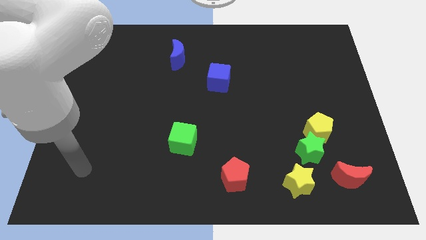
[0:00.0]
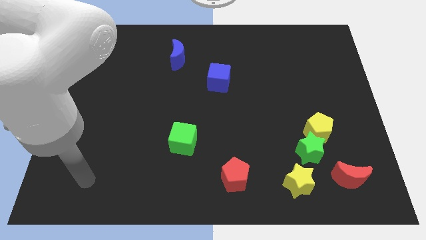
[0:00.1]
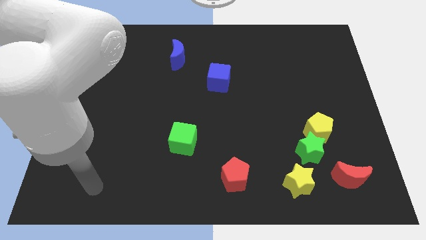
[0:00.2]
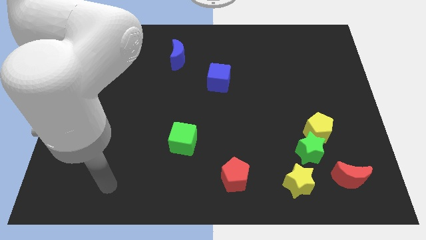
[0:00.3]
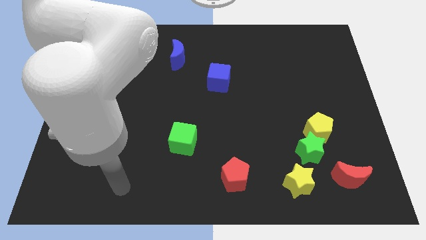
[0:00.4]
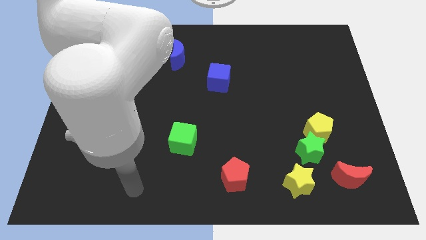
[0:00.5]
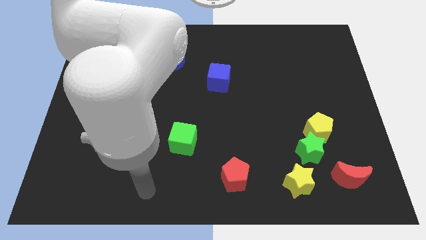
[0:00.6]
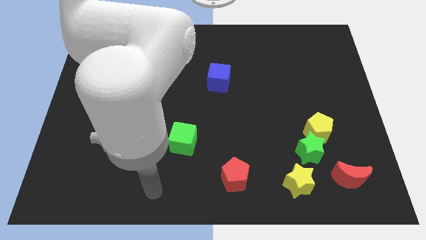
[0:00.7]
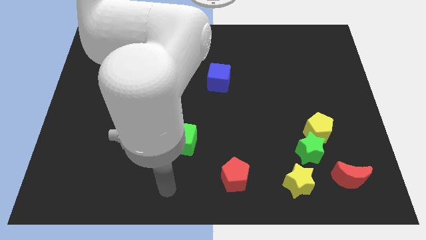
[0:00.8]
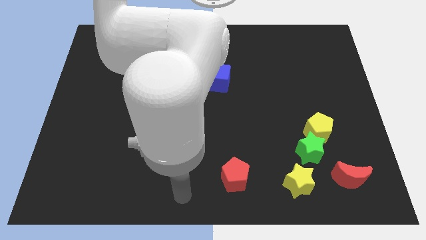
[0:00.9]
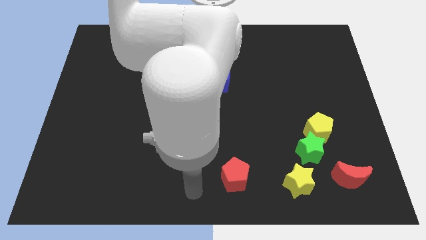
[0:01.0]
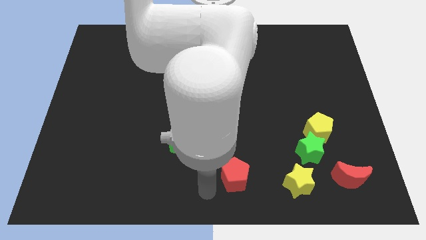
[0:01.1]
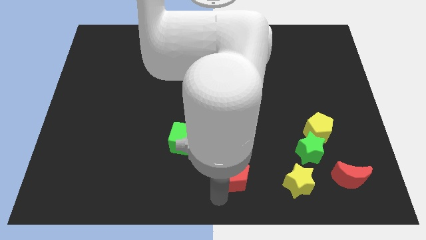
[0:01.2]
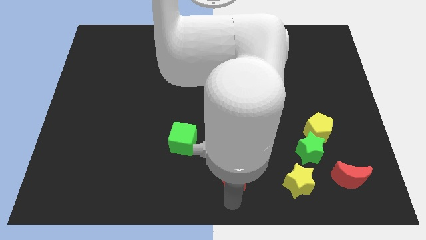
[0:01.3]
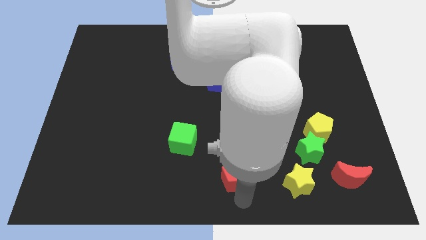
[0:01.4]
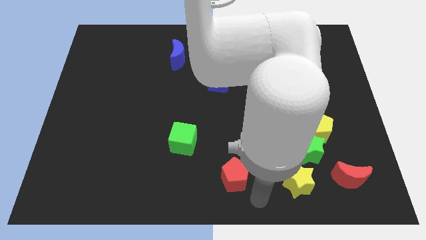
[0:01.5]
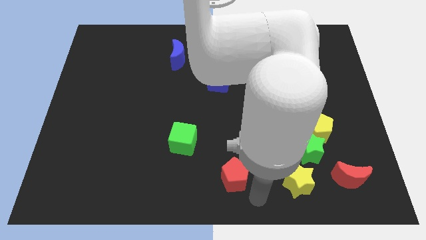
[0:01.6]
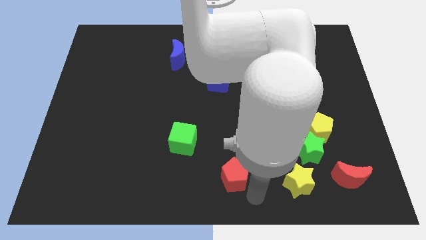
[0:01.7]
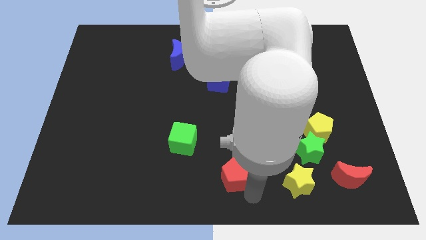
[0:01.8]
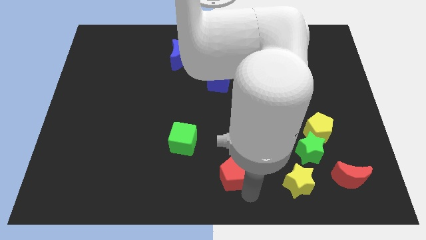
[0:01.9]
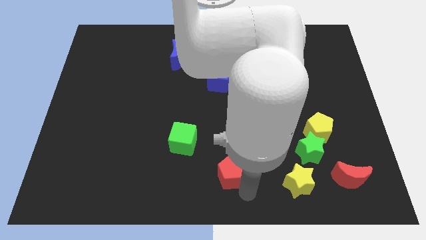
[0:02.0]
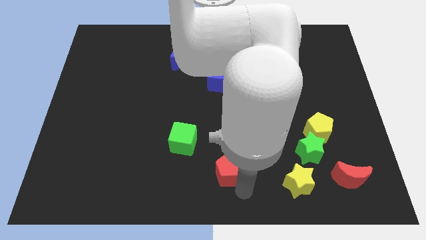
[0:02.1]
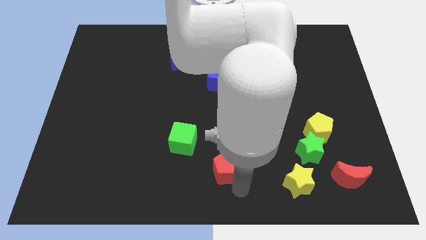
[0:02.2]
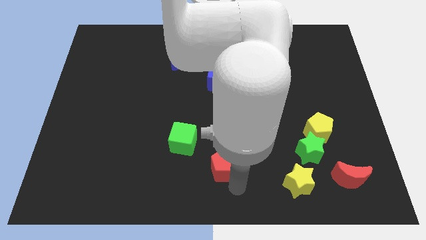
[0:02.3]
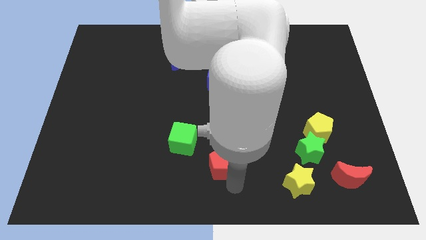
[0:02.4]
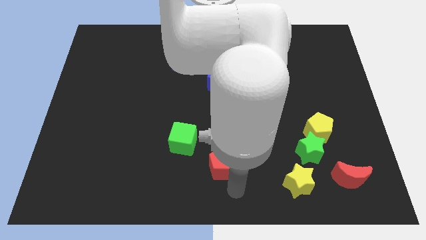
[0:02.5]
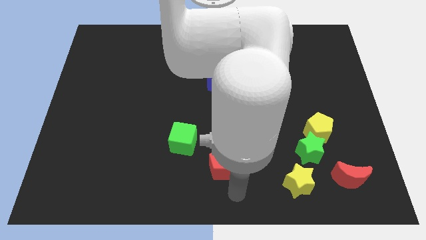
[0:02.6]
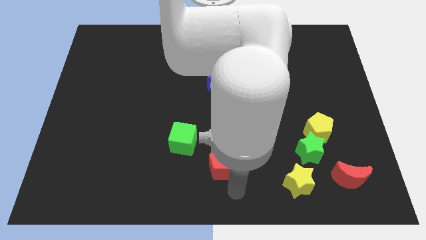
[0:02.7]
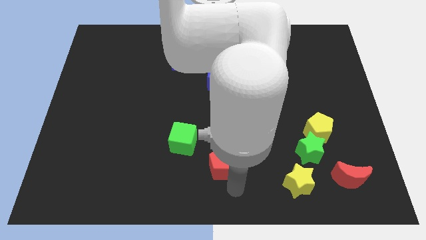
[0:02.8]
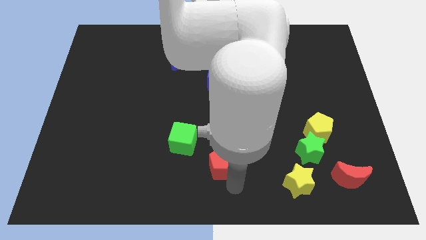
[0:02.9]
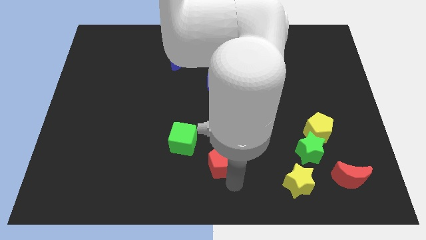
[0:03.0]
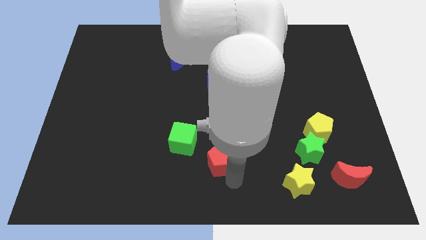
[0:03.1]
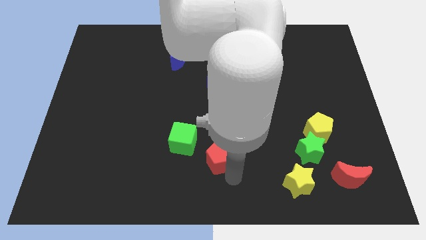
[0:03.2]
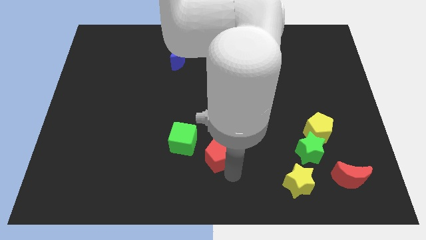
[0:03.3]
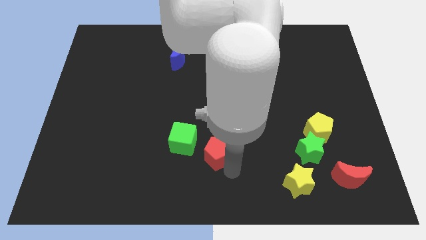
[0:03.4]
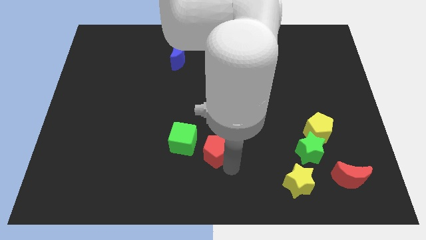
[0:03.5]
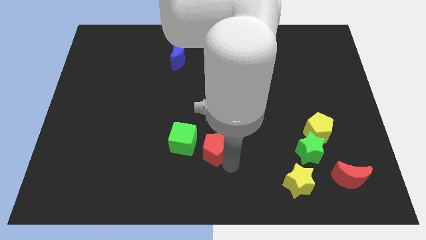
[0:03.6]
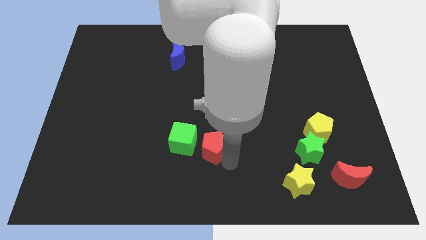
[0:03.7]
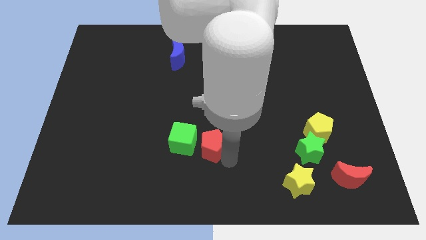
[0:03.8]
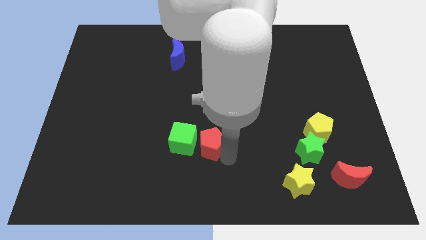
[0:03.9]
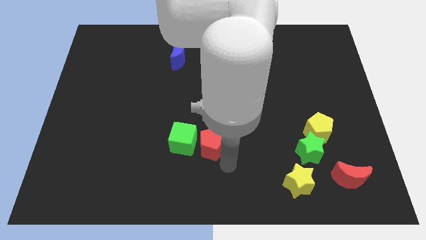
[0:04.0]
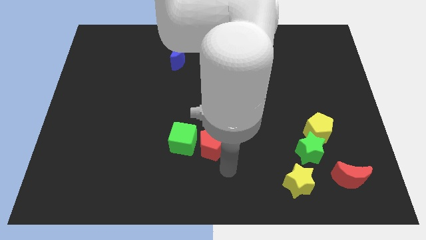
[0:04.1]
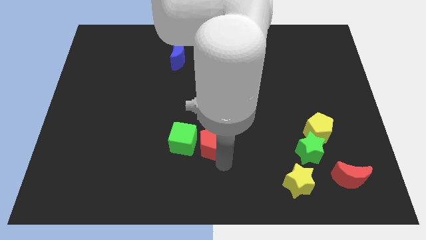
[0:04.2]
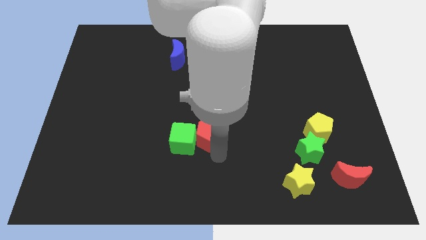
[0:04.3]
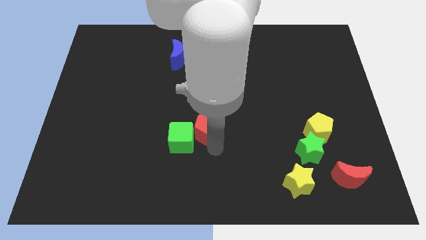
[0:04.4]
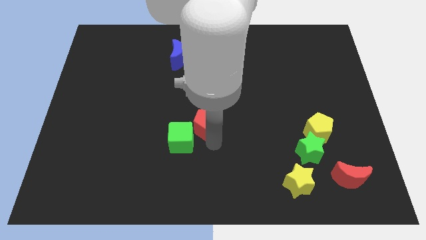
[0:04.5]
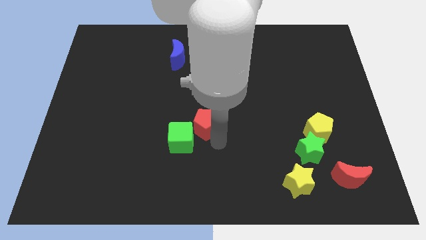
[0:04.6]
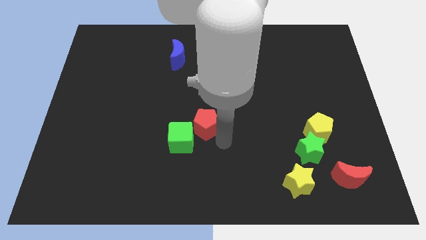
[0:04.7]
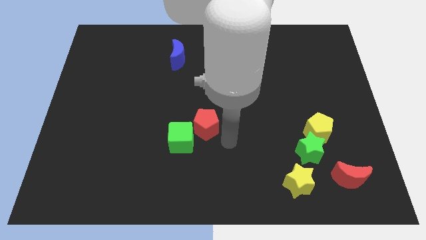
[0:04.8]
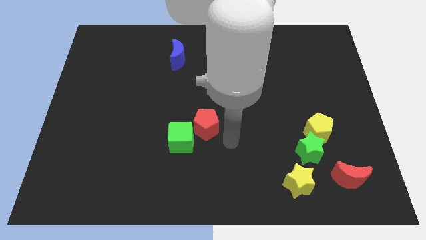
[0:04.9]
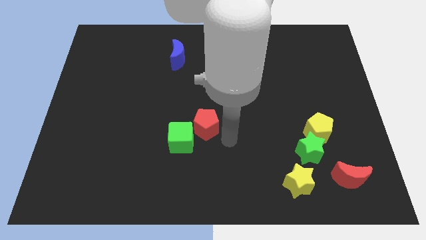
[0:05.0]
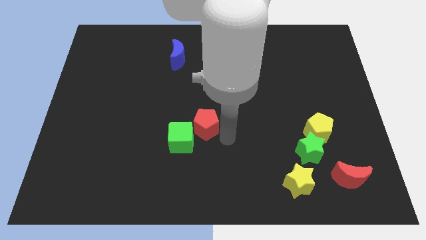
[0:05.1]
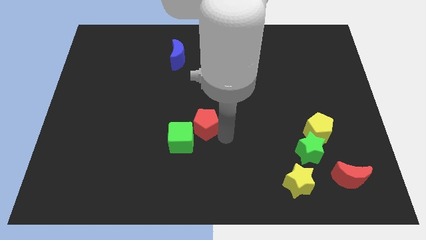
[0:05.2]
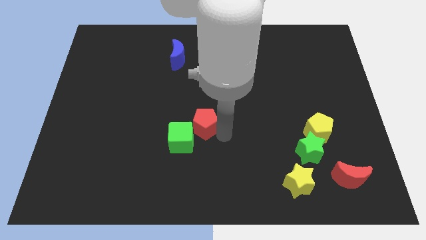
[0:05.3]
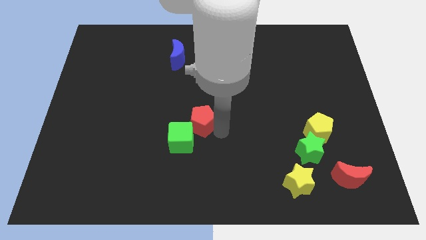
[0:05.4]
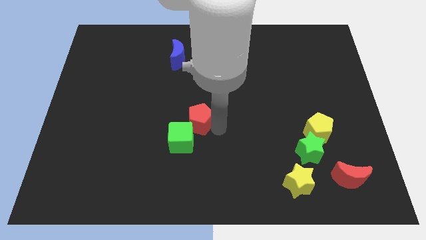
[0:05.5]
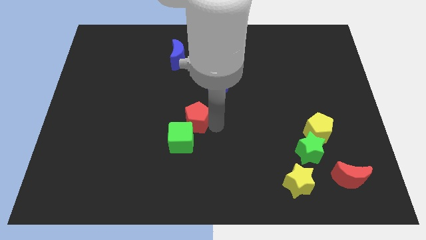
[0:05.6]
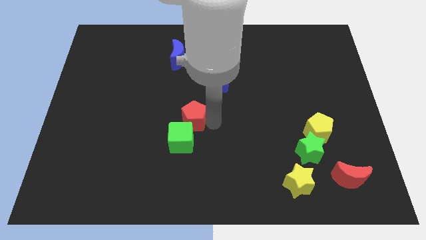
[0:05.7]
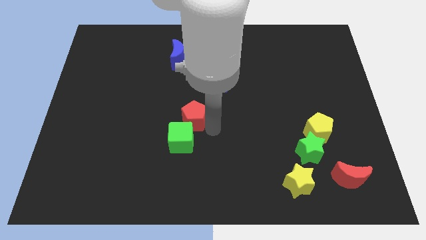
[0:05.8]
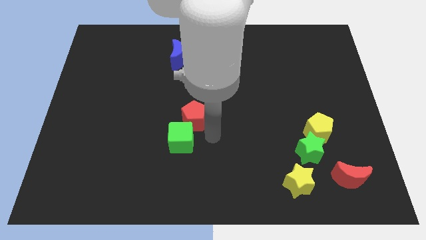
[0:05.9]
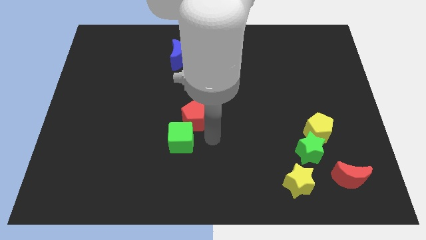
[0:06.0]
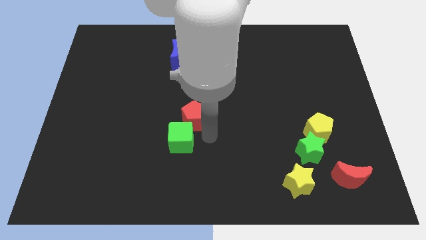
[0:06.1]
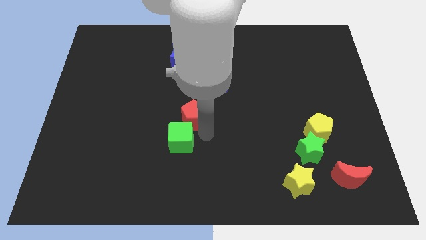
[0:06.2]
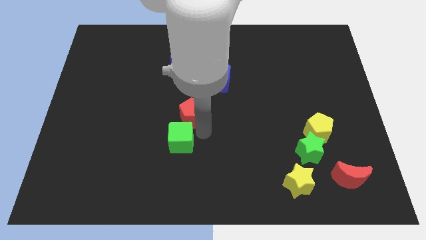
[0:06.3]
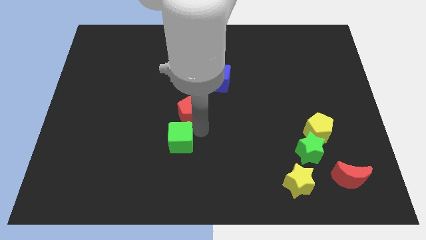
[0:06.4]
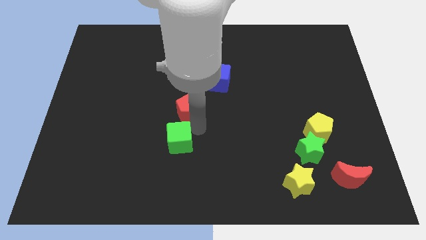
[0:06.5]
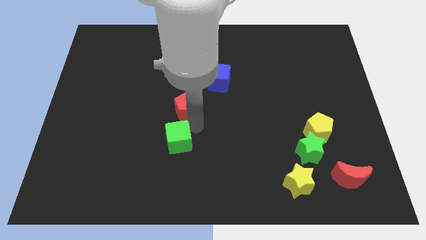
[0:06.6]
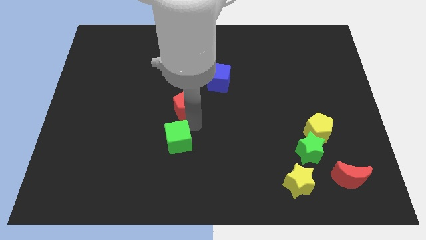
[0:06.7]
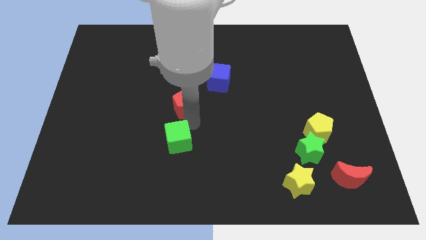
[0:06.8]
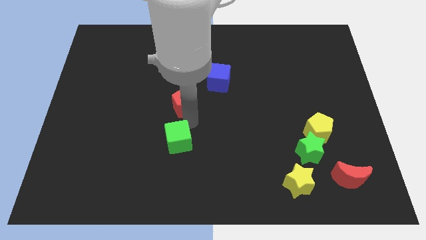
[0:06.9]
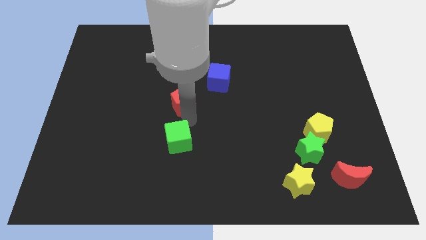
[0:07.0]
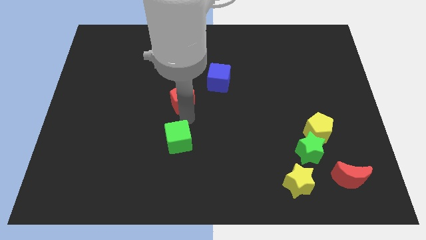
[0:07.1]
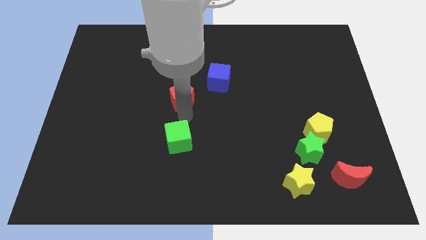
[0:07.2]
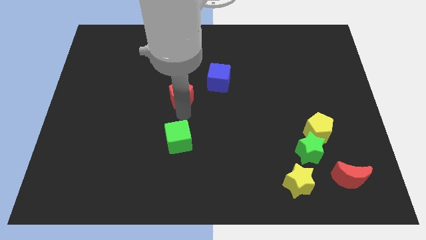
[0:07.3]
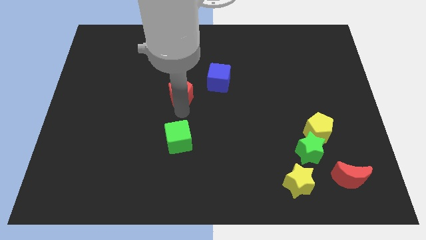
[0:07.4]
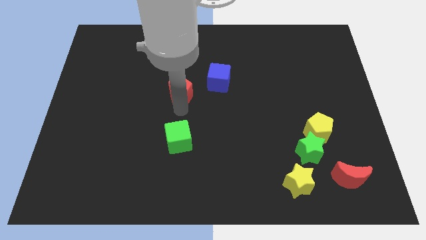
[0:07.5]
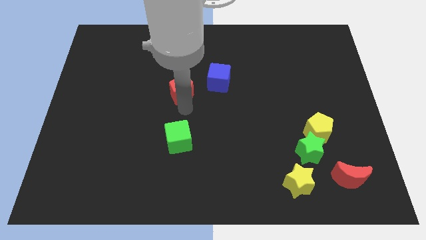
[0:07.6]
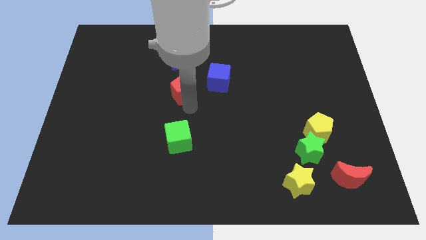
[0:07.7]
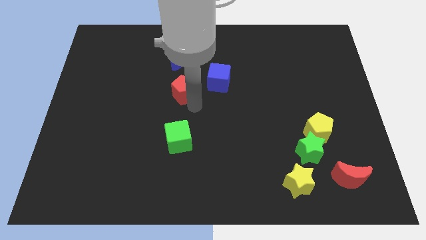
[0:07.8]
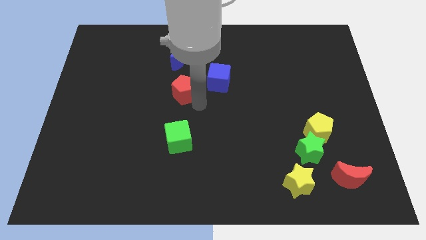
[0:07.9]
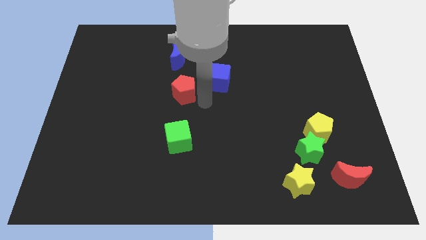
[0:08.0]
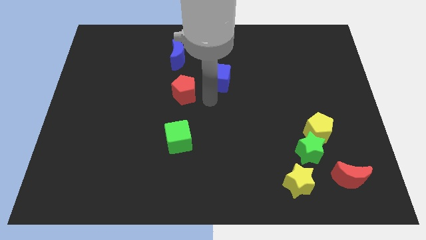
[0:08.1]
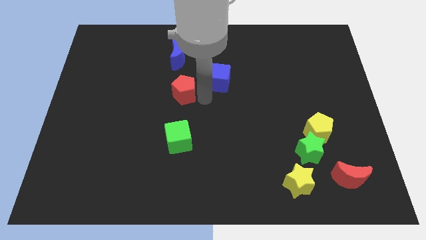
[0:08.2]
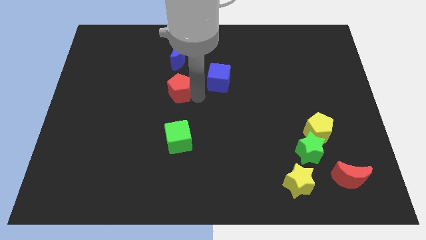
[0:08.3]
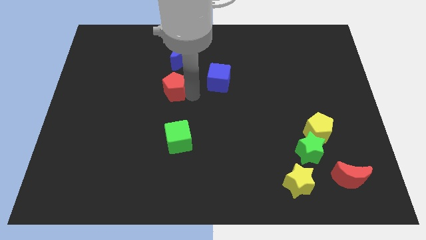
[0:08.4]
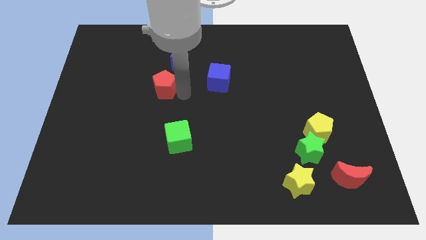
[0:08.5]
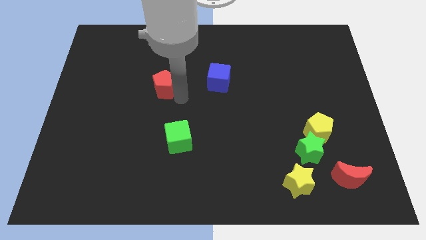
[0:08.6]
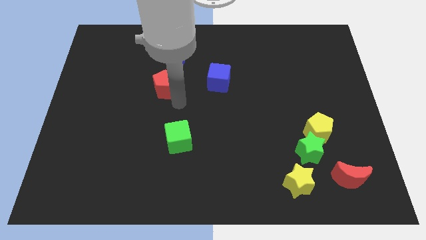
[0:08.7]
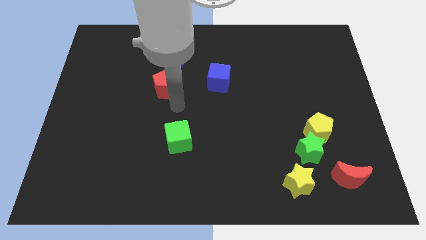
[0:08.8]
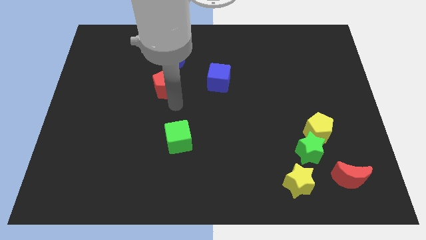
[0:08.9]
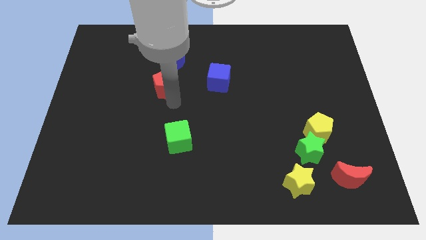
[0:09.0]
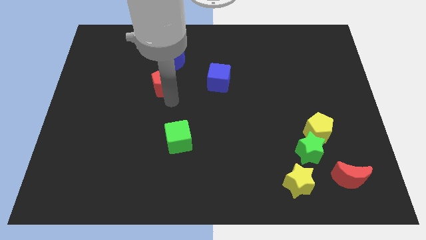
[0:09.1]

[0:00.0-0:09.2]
push the red pentagon to the bottom left side of the blue moon
